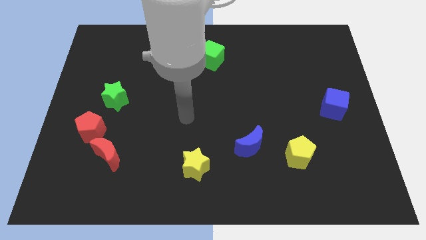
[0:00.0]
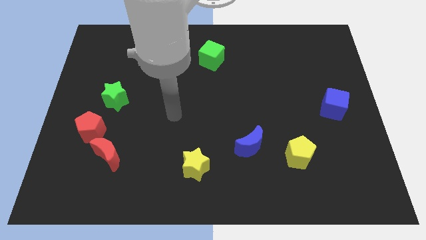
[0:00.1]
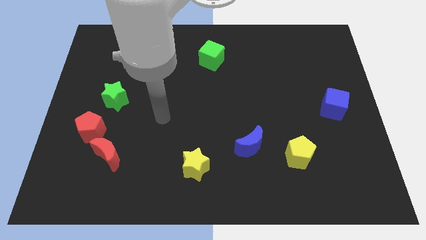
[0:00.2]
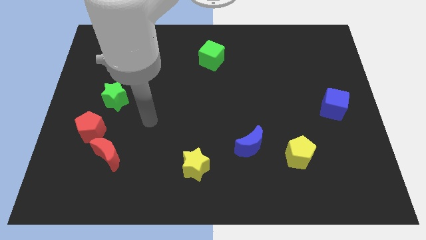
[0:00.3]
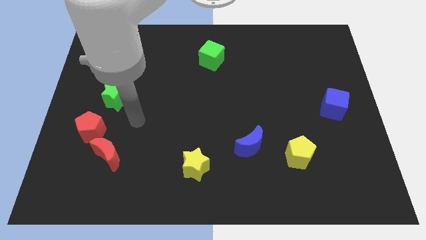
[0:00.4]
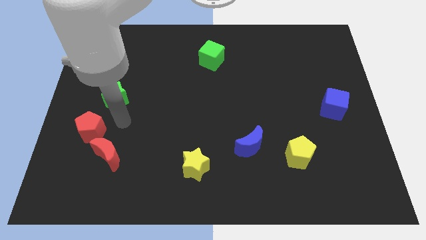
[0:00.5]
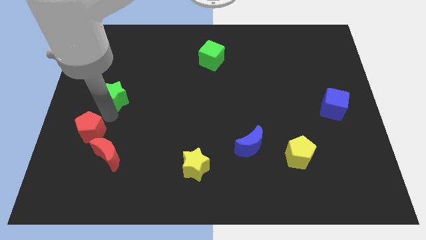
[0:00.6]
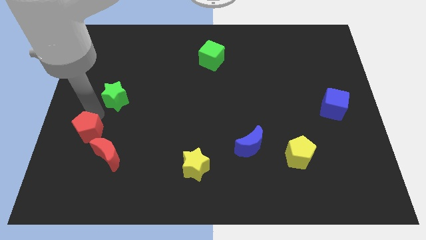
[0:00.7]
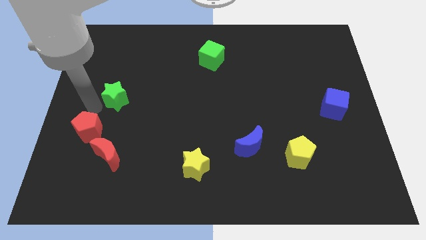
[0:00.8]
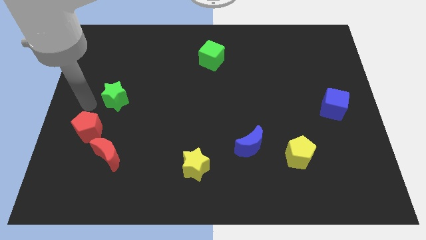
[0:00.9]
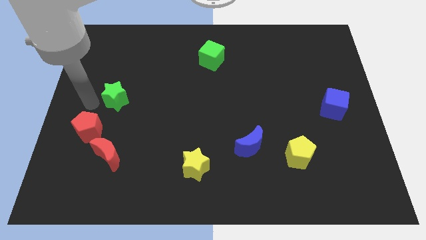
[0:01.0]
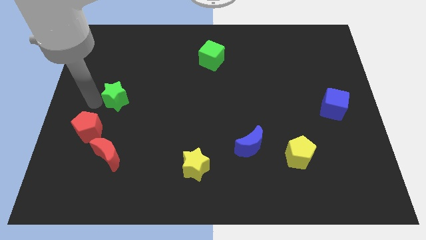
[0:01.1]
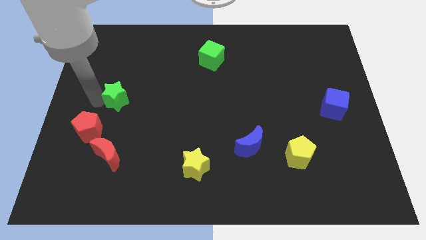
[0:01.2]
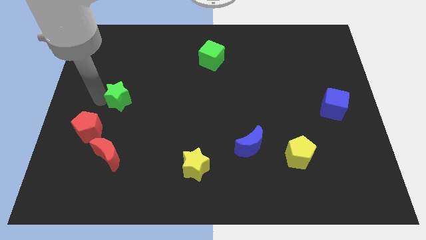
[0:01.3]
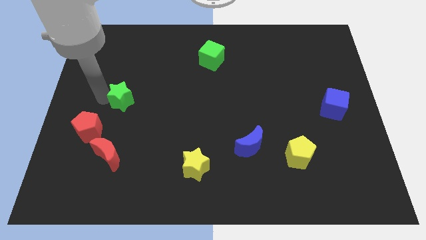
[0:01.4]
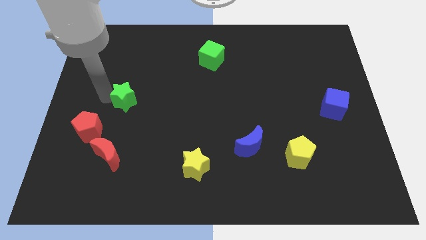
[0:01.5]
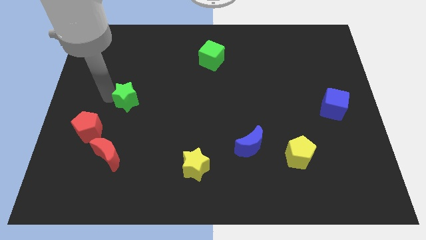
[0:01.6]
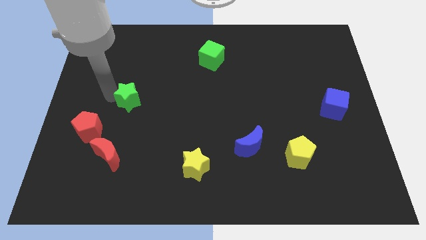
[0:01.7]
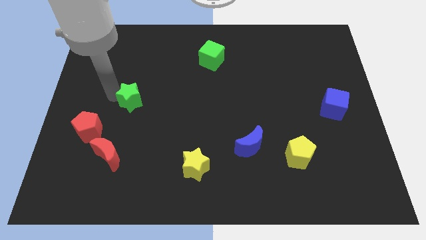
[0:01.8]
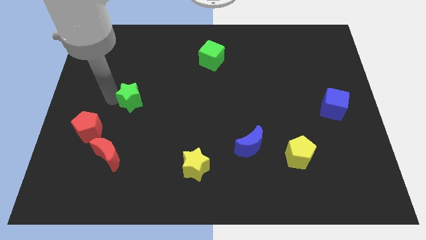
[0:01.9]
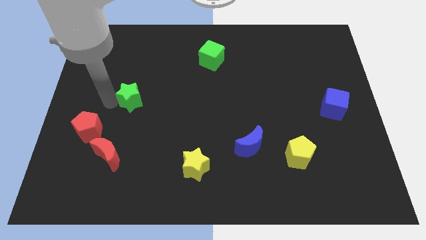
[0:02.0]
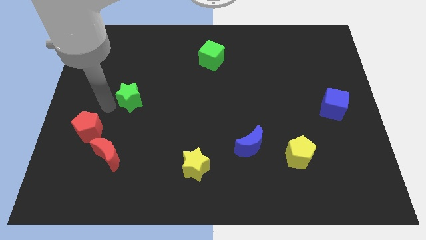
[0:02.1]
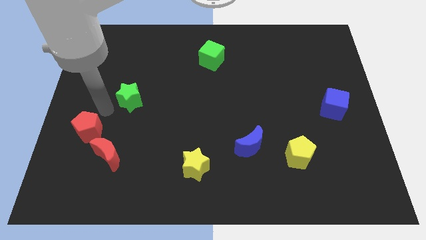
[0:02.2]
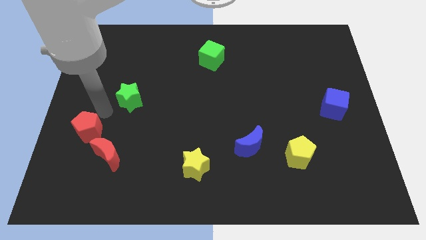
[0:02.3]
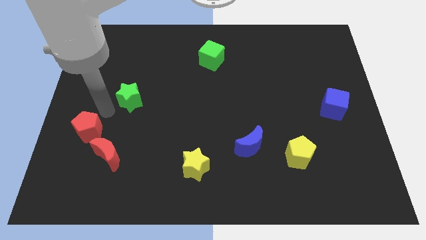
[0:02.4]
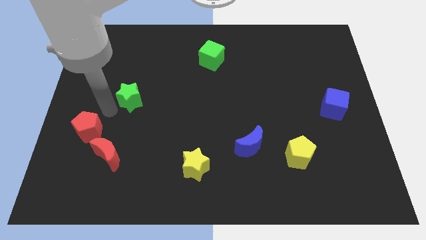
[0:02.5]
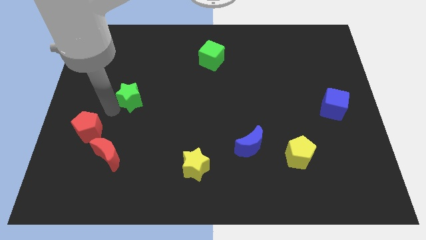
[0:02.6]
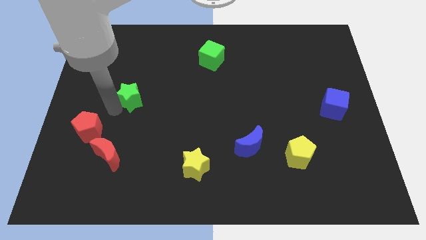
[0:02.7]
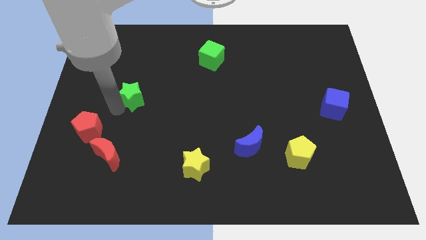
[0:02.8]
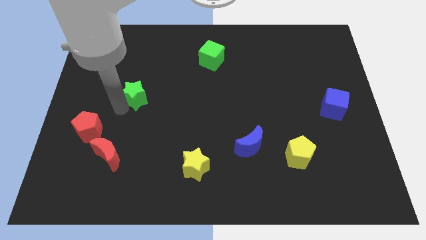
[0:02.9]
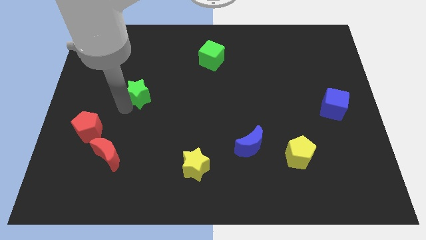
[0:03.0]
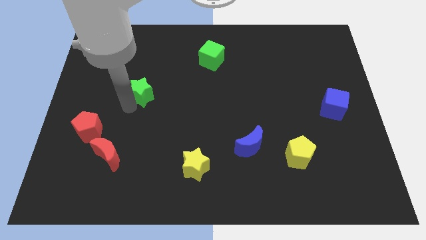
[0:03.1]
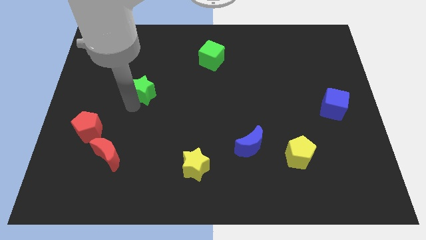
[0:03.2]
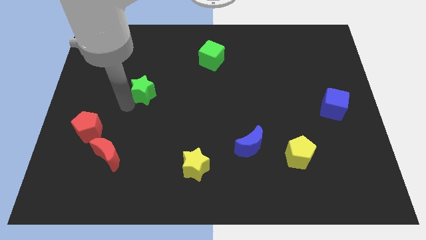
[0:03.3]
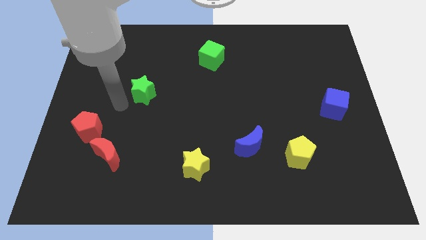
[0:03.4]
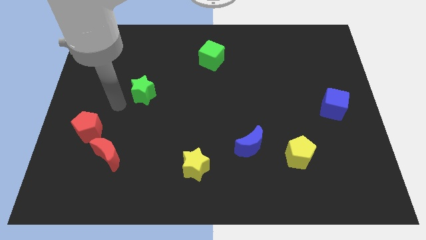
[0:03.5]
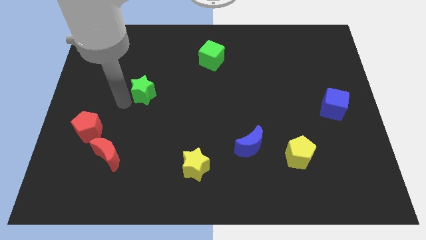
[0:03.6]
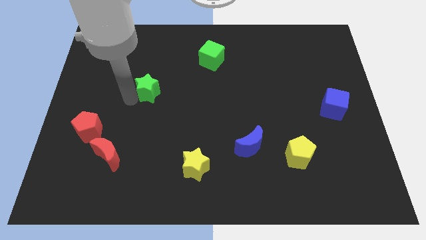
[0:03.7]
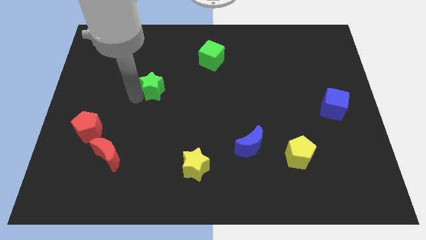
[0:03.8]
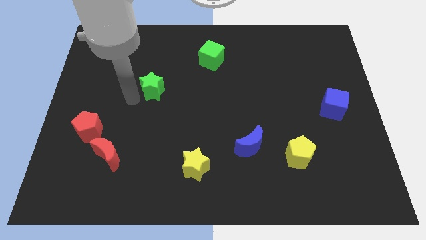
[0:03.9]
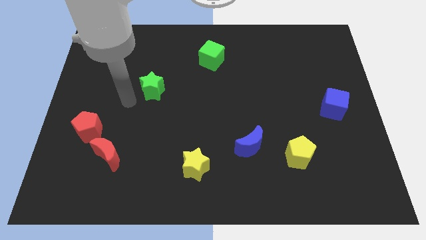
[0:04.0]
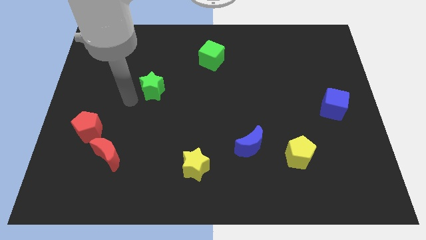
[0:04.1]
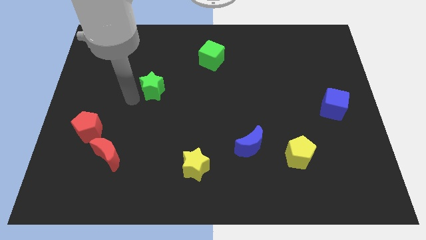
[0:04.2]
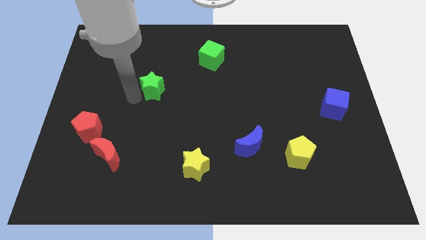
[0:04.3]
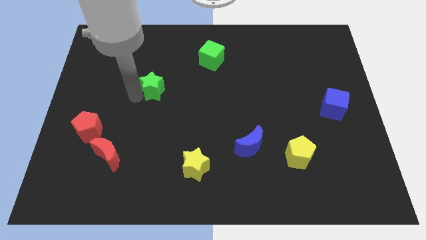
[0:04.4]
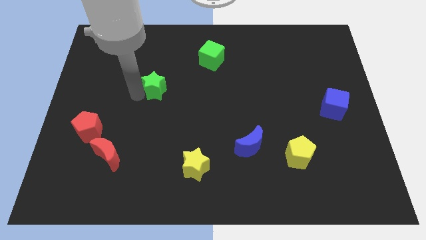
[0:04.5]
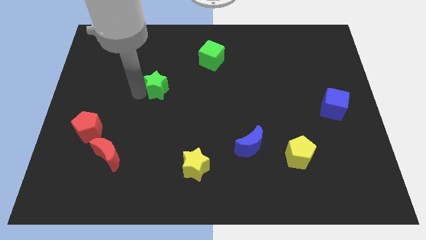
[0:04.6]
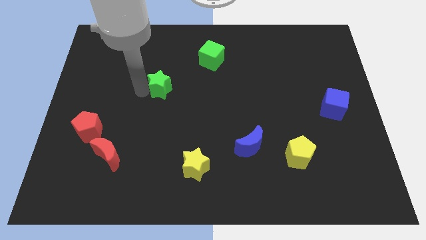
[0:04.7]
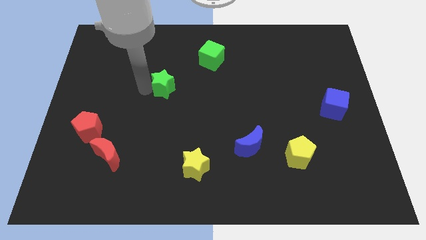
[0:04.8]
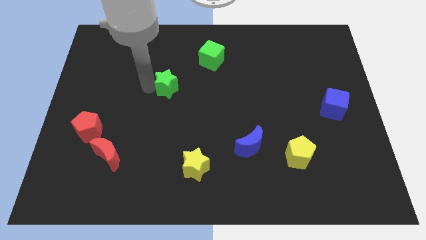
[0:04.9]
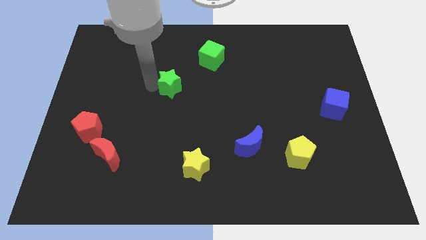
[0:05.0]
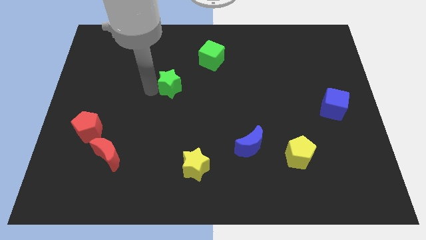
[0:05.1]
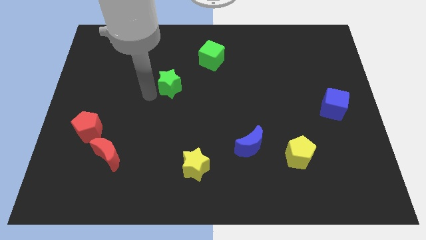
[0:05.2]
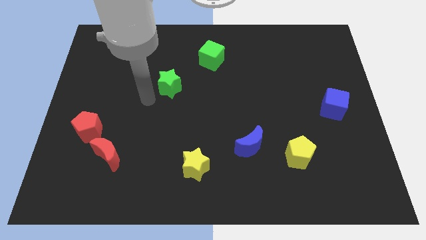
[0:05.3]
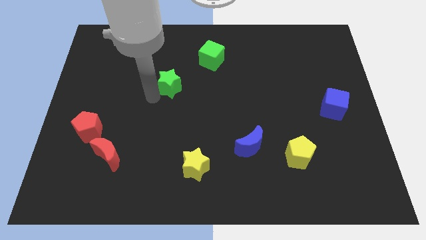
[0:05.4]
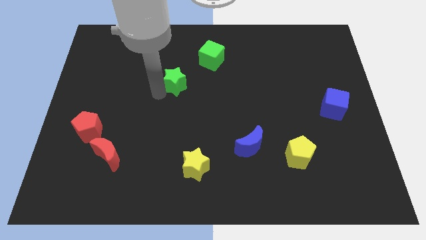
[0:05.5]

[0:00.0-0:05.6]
push the green star to the bottom left of the green cube

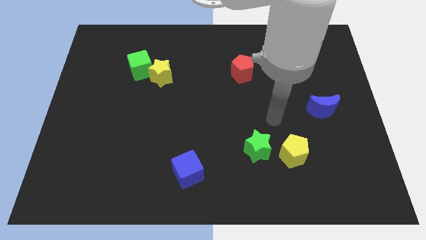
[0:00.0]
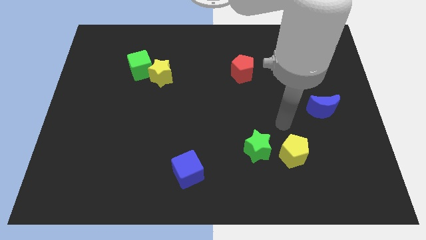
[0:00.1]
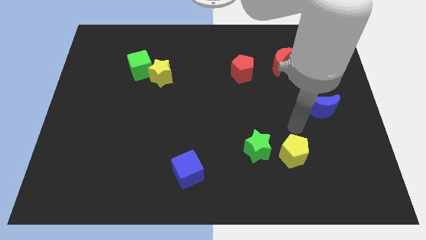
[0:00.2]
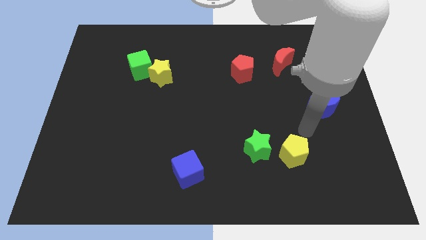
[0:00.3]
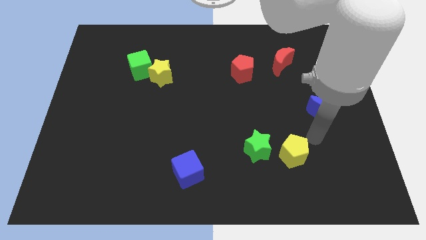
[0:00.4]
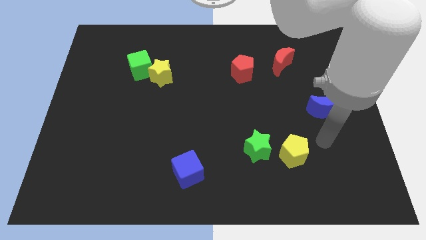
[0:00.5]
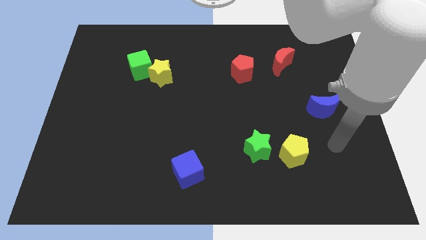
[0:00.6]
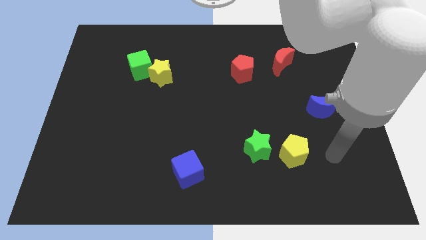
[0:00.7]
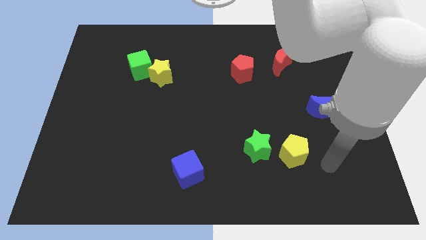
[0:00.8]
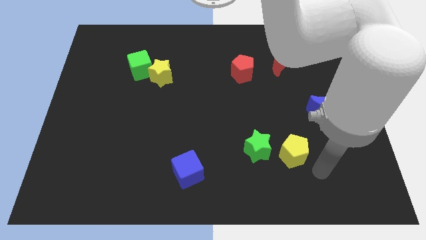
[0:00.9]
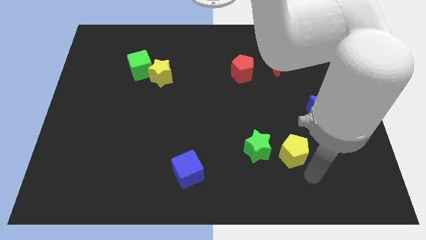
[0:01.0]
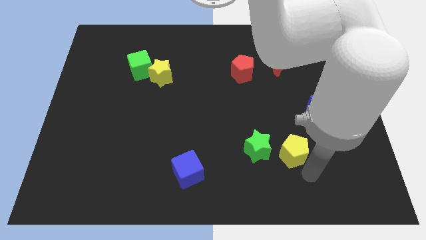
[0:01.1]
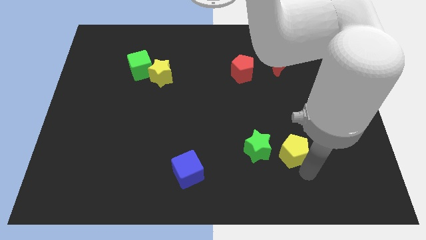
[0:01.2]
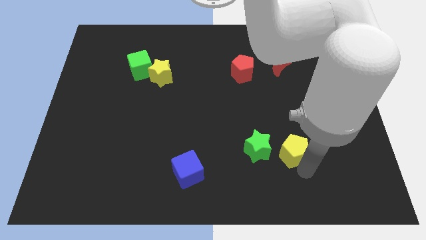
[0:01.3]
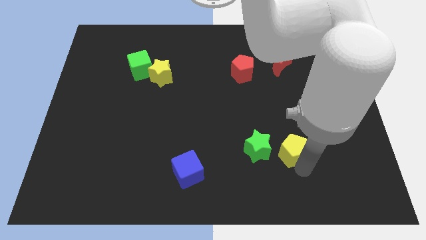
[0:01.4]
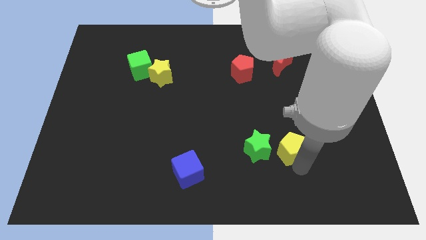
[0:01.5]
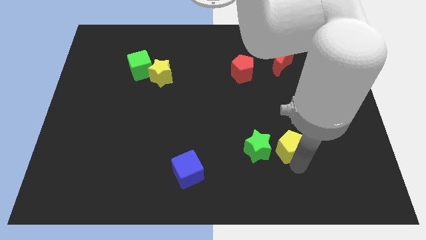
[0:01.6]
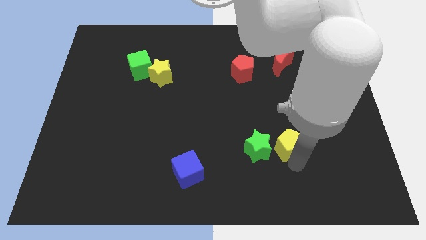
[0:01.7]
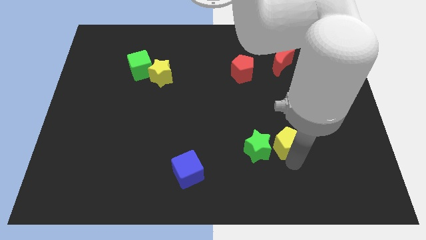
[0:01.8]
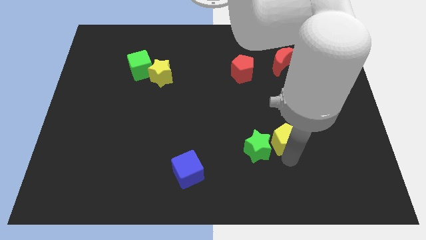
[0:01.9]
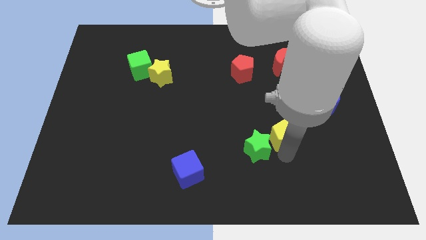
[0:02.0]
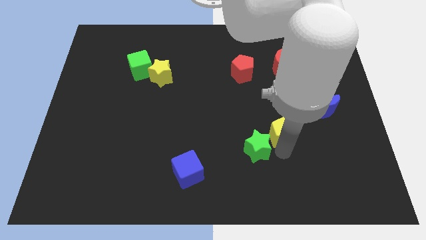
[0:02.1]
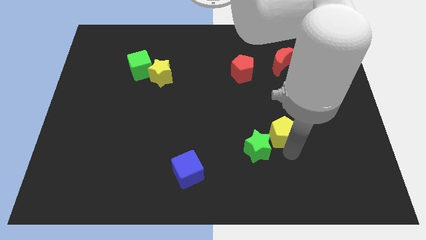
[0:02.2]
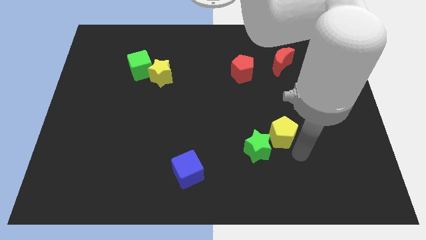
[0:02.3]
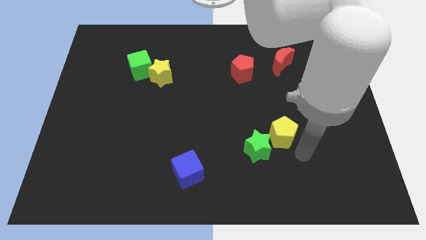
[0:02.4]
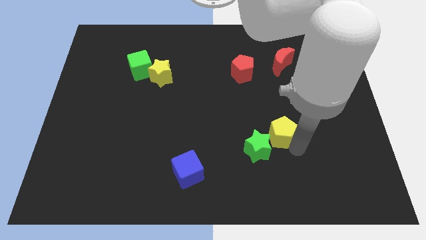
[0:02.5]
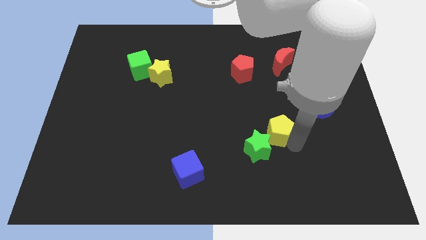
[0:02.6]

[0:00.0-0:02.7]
push the yellow pentagon to the top of the green star
